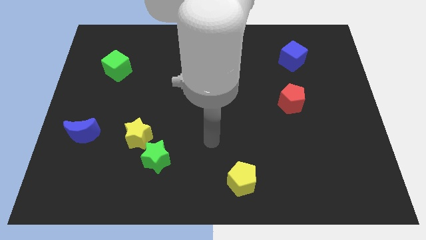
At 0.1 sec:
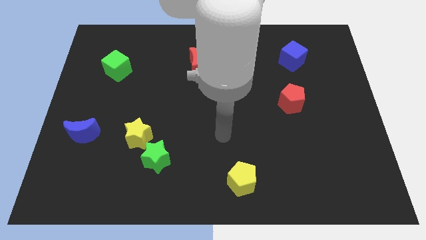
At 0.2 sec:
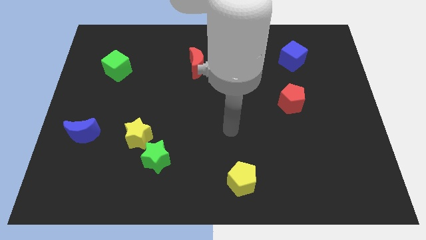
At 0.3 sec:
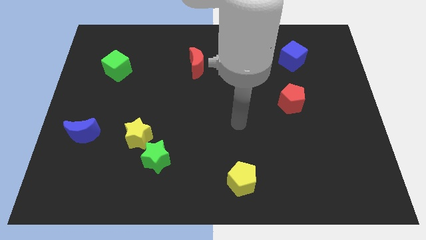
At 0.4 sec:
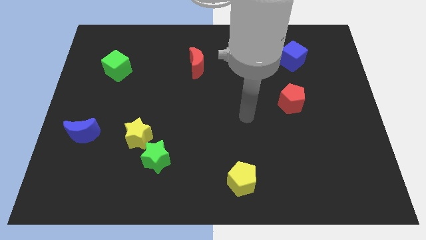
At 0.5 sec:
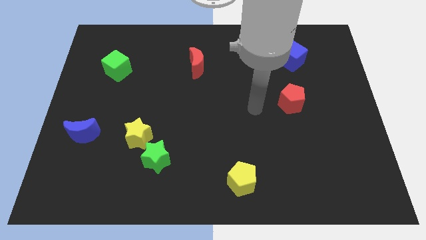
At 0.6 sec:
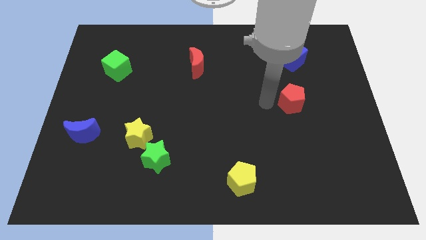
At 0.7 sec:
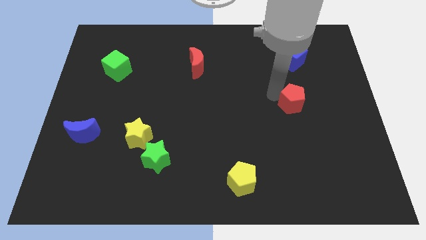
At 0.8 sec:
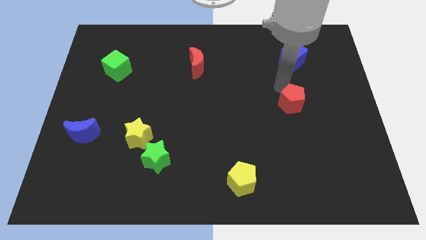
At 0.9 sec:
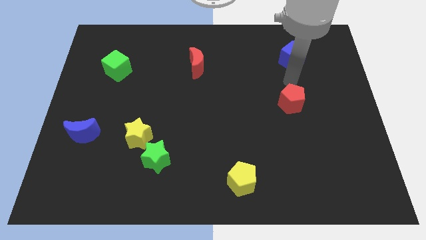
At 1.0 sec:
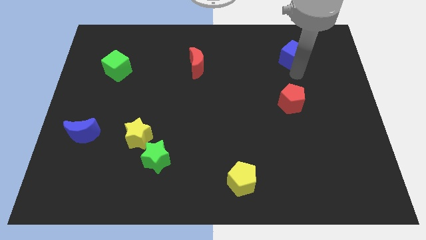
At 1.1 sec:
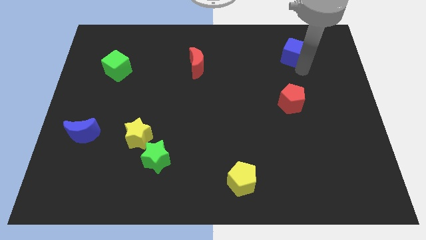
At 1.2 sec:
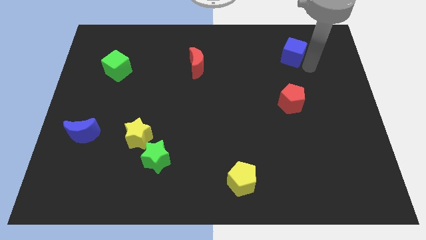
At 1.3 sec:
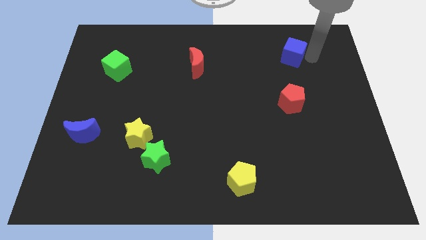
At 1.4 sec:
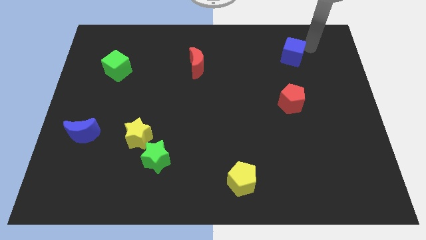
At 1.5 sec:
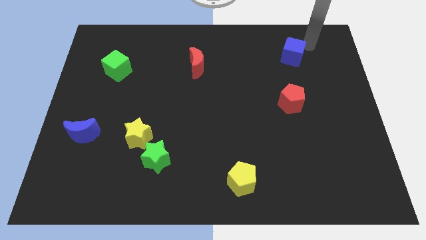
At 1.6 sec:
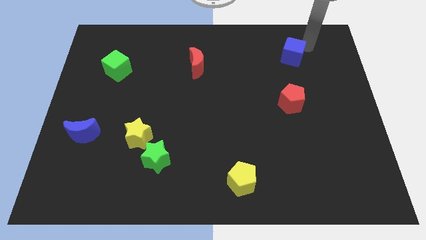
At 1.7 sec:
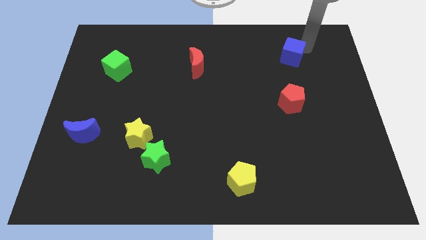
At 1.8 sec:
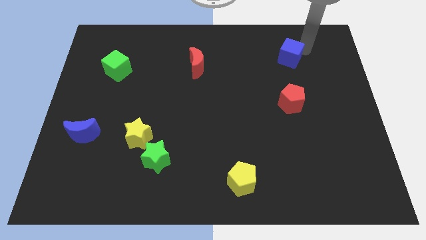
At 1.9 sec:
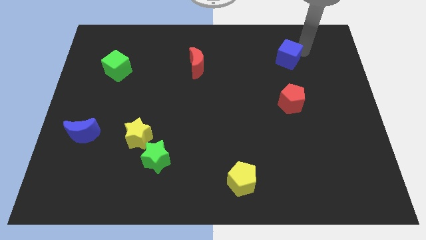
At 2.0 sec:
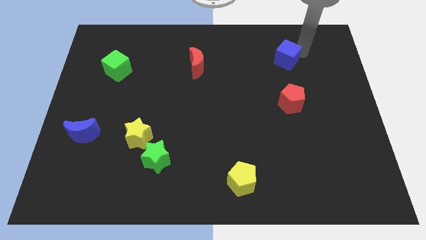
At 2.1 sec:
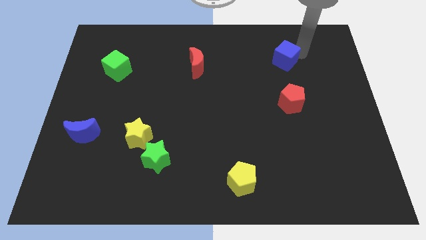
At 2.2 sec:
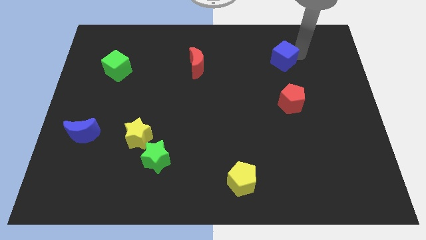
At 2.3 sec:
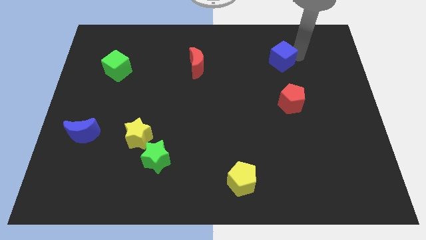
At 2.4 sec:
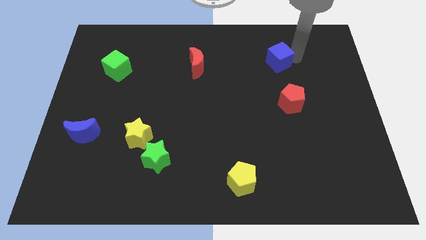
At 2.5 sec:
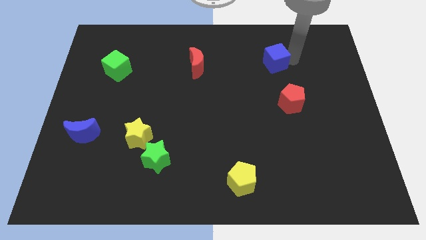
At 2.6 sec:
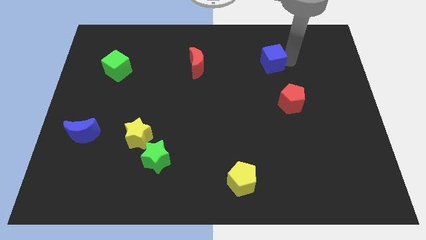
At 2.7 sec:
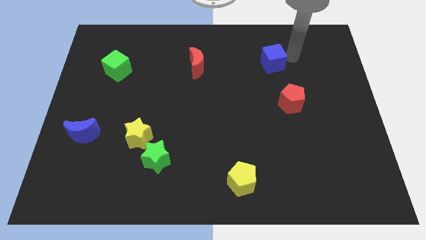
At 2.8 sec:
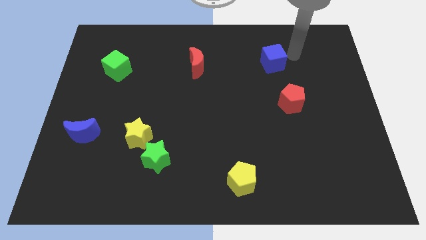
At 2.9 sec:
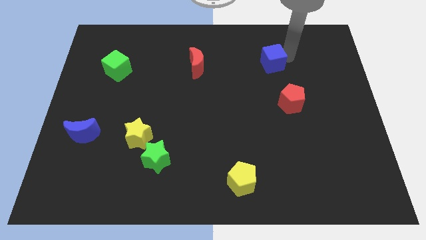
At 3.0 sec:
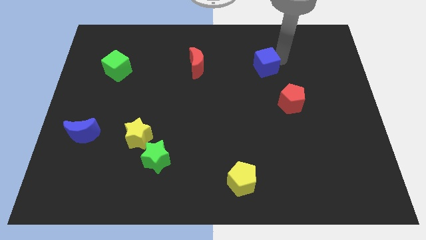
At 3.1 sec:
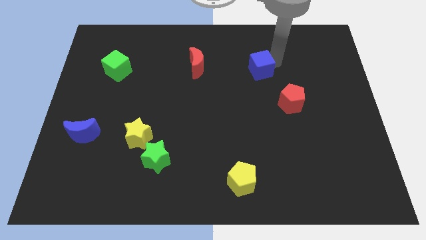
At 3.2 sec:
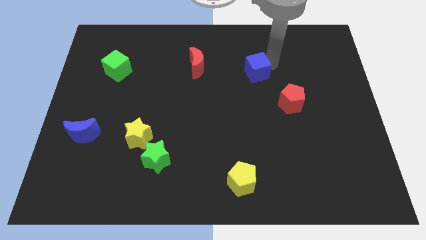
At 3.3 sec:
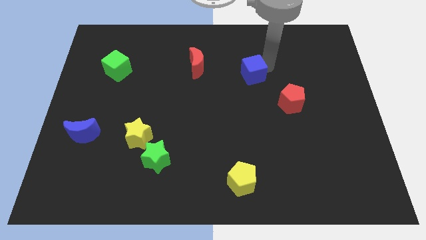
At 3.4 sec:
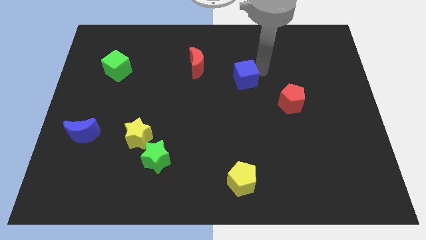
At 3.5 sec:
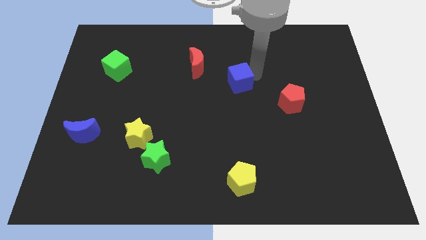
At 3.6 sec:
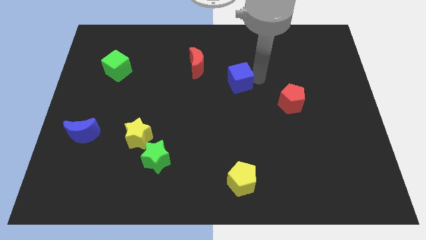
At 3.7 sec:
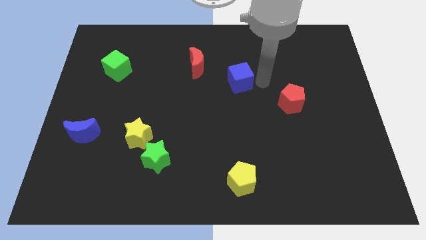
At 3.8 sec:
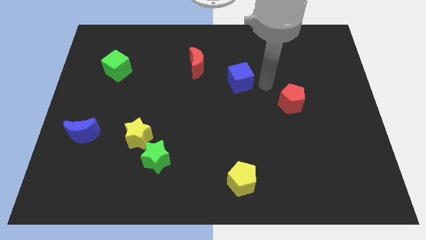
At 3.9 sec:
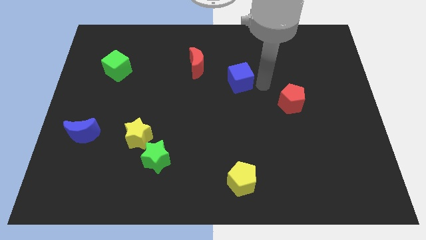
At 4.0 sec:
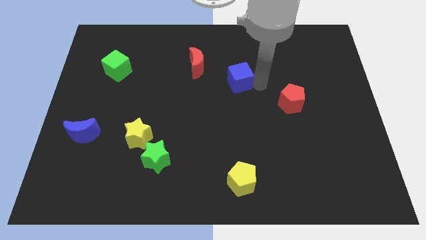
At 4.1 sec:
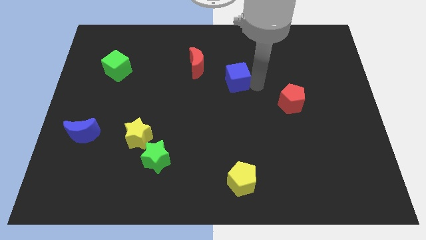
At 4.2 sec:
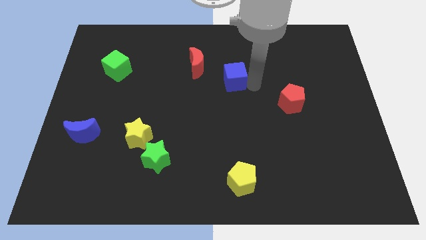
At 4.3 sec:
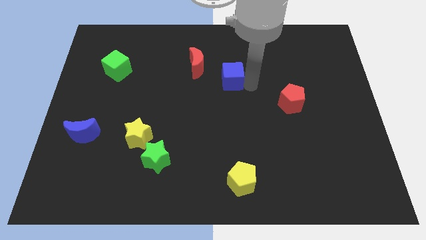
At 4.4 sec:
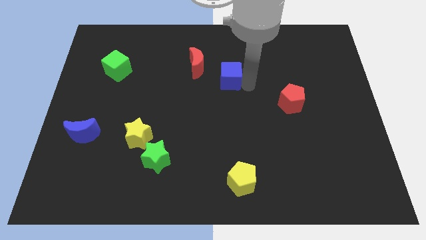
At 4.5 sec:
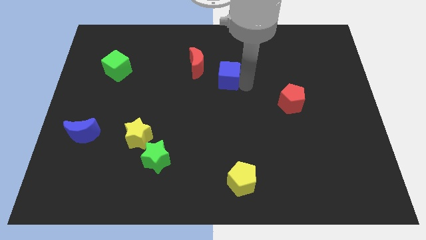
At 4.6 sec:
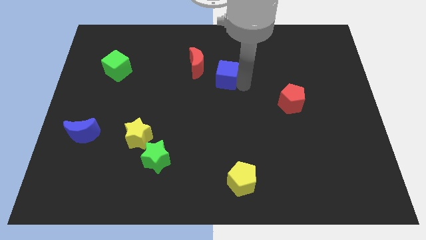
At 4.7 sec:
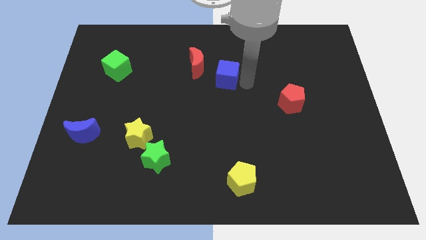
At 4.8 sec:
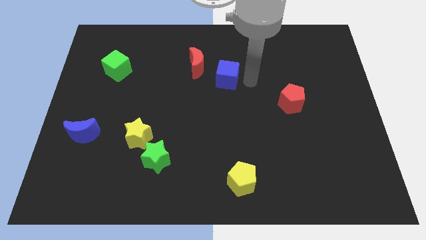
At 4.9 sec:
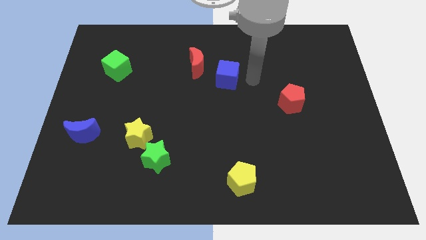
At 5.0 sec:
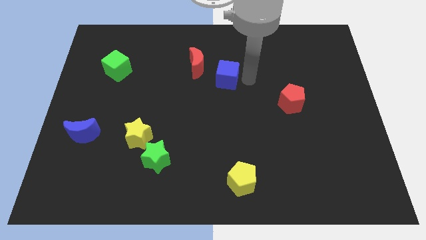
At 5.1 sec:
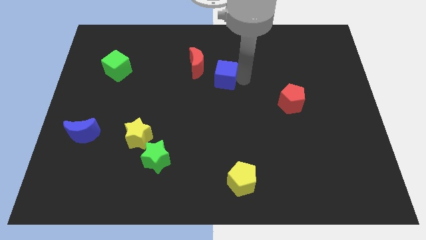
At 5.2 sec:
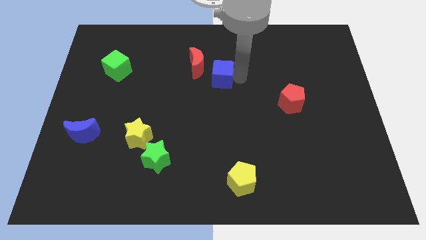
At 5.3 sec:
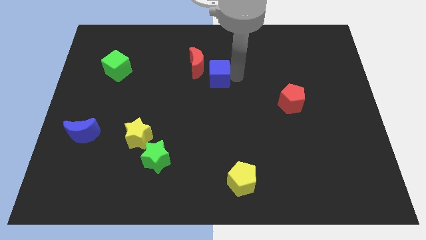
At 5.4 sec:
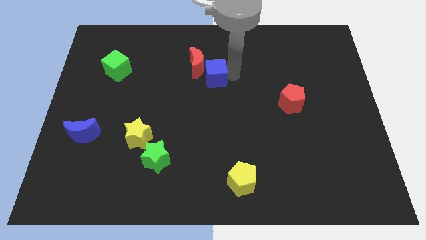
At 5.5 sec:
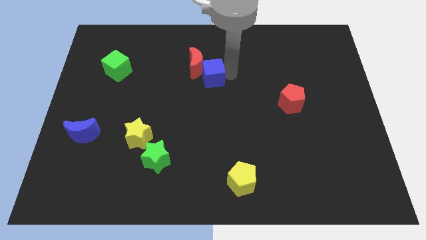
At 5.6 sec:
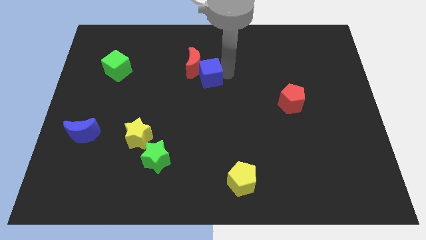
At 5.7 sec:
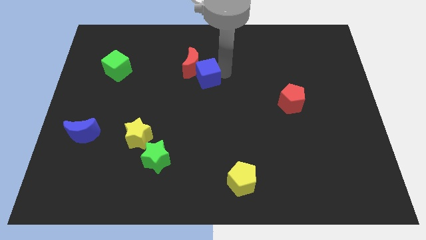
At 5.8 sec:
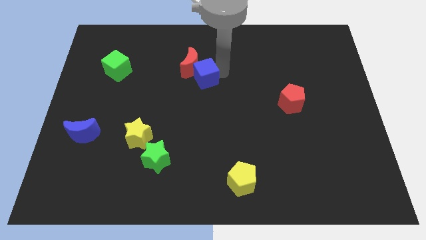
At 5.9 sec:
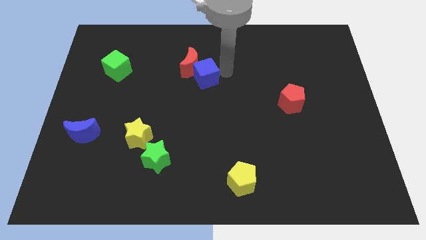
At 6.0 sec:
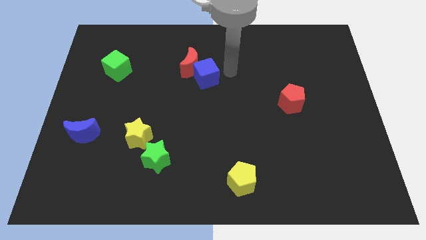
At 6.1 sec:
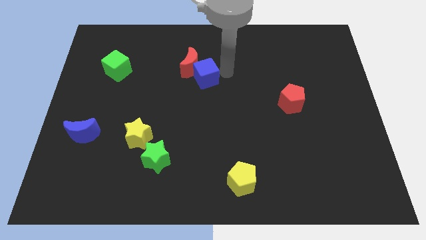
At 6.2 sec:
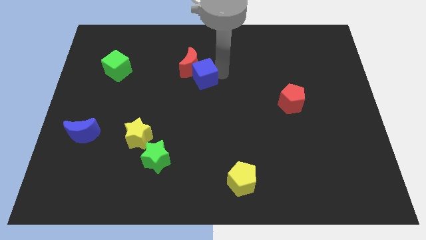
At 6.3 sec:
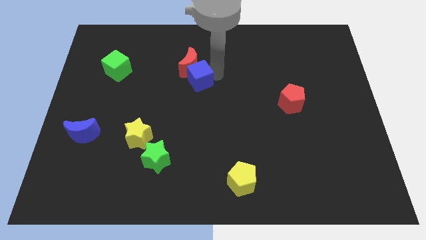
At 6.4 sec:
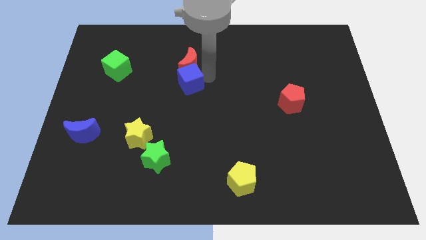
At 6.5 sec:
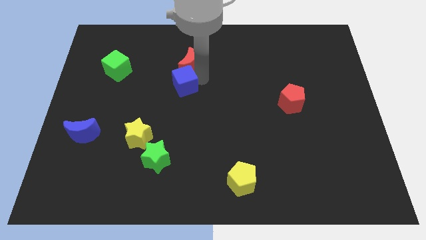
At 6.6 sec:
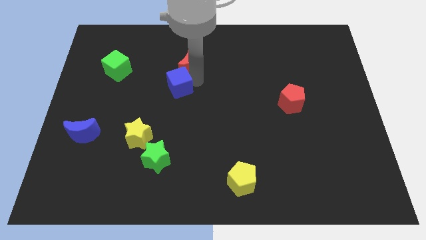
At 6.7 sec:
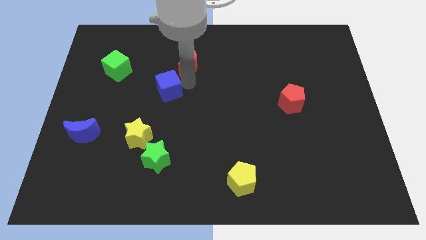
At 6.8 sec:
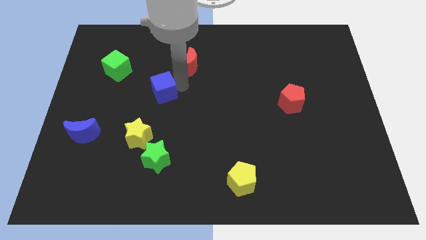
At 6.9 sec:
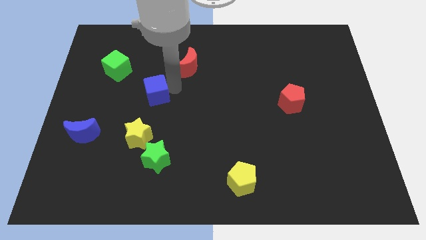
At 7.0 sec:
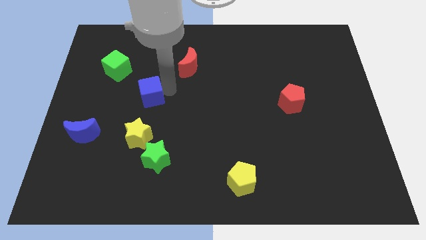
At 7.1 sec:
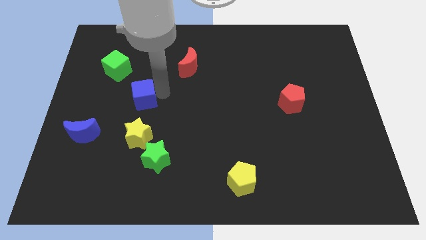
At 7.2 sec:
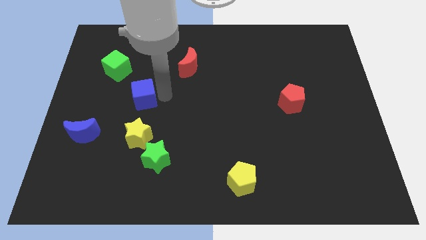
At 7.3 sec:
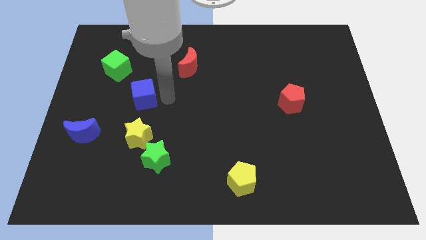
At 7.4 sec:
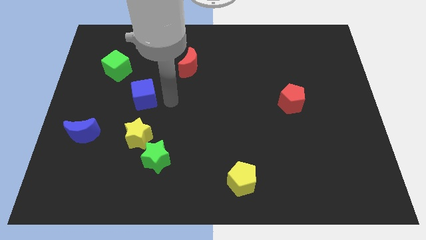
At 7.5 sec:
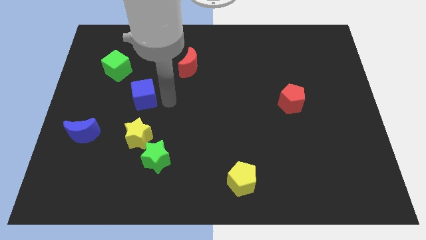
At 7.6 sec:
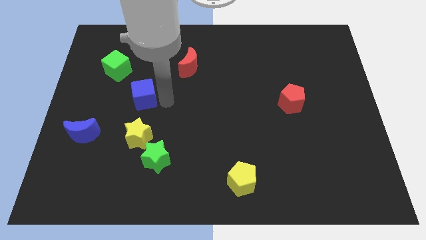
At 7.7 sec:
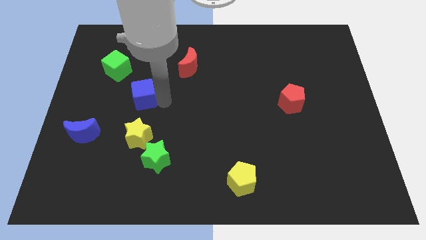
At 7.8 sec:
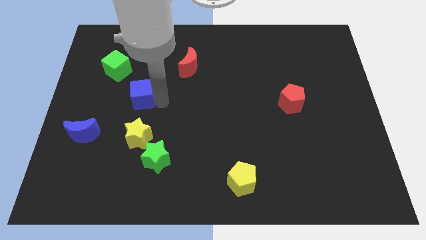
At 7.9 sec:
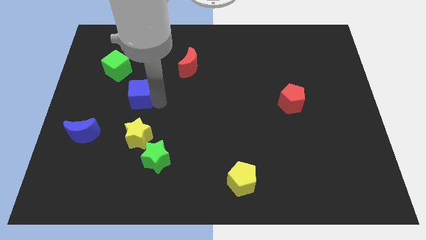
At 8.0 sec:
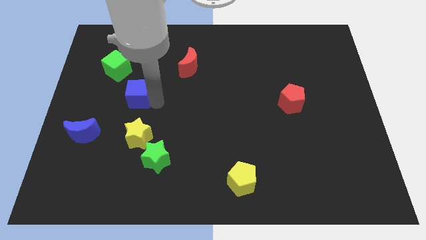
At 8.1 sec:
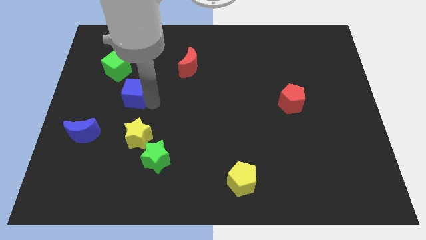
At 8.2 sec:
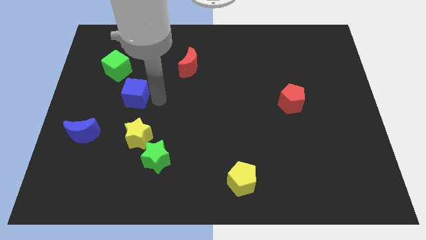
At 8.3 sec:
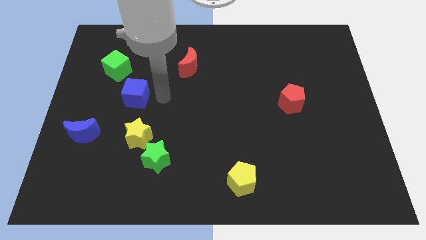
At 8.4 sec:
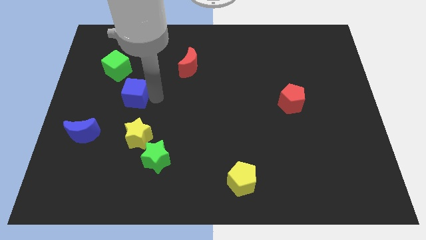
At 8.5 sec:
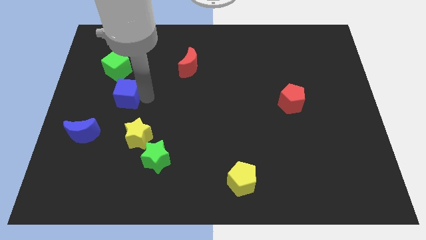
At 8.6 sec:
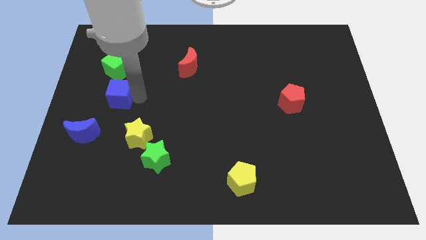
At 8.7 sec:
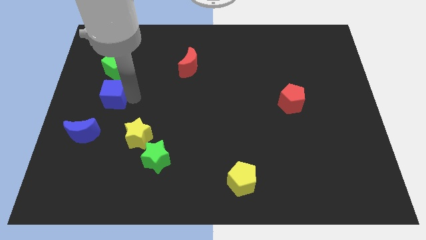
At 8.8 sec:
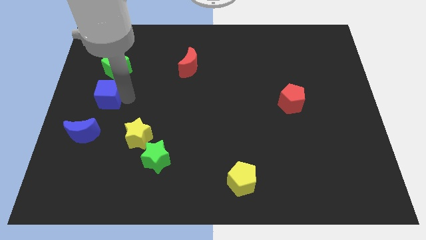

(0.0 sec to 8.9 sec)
slide the blue cube to the center left
